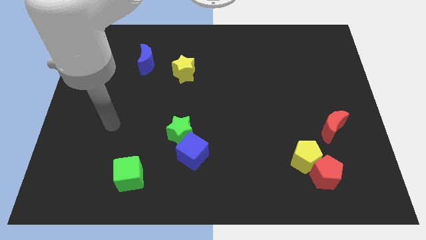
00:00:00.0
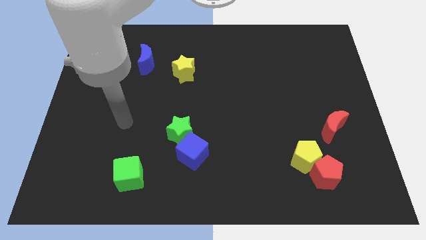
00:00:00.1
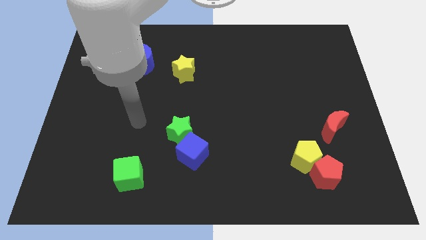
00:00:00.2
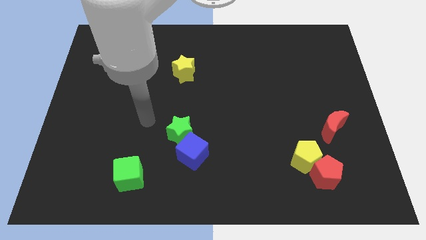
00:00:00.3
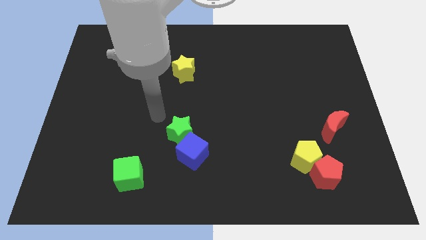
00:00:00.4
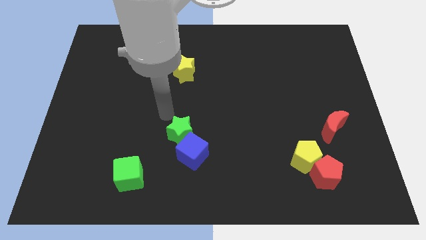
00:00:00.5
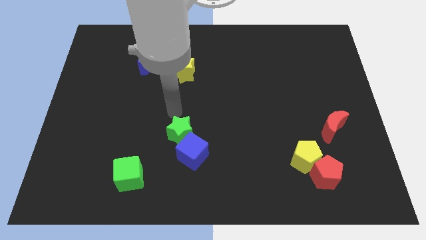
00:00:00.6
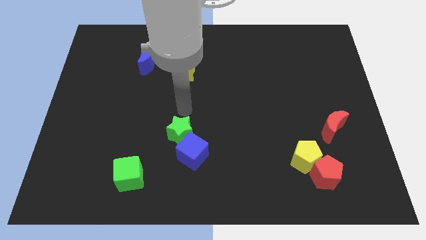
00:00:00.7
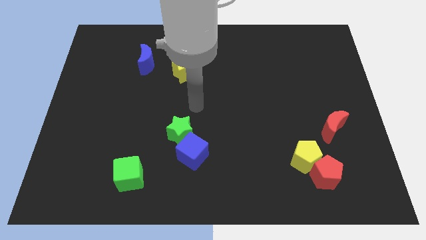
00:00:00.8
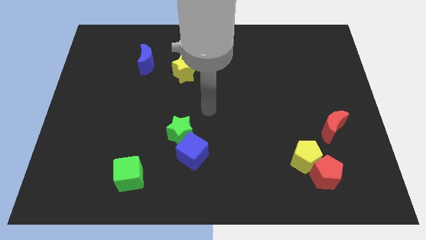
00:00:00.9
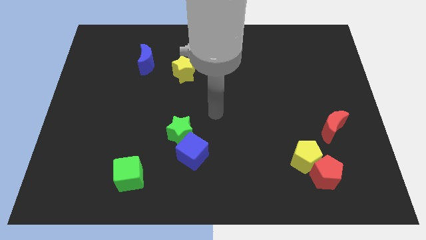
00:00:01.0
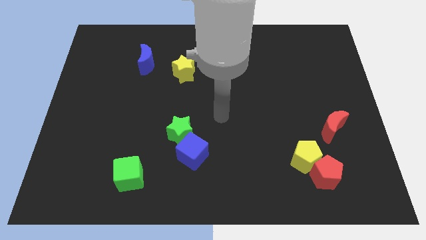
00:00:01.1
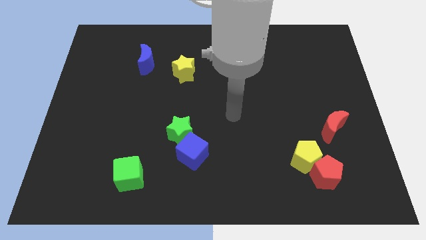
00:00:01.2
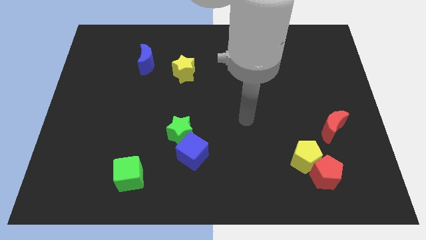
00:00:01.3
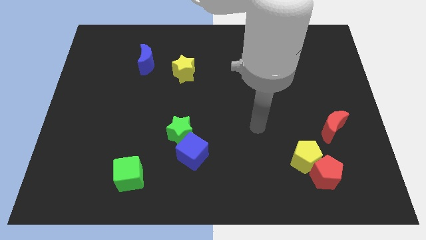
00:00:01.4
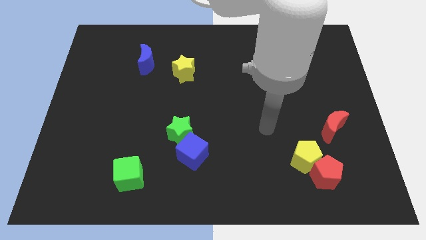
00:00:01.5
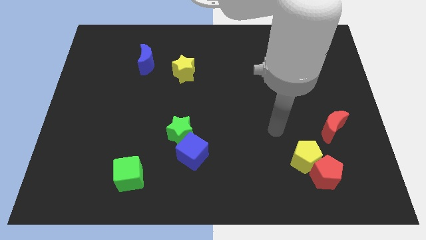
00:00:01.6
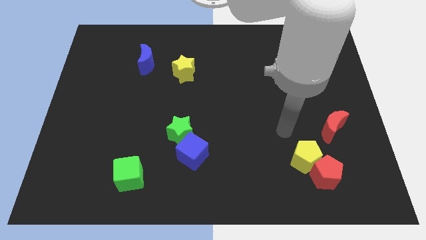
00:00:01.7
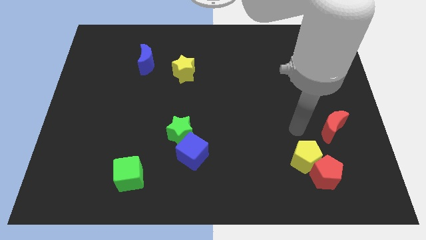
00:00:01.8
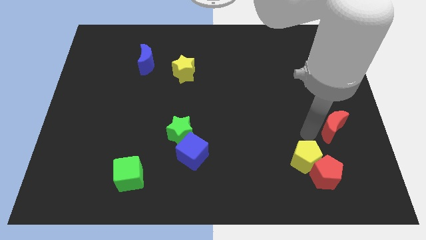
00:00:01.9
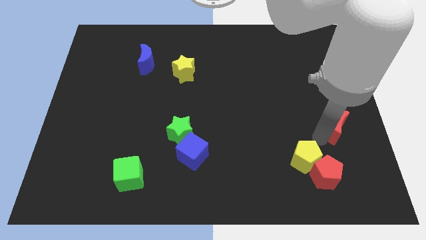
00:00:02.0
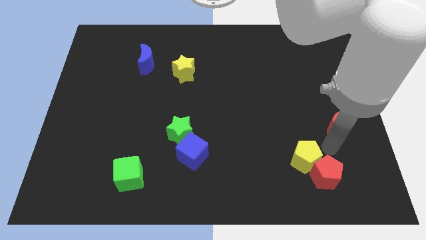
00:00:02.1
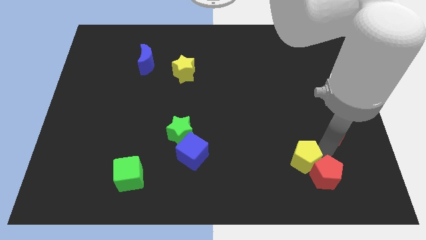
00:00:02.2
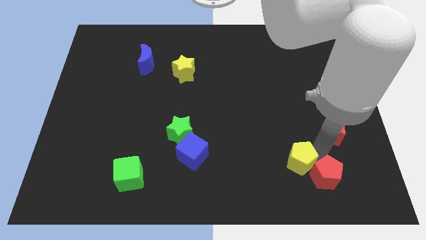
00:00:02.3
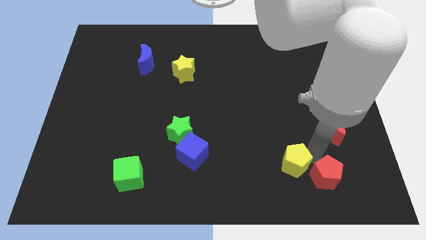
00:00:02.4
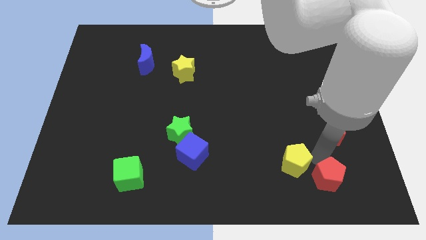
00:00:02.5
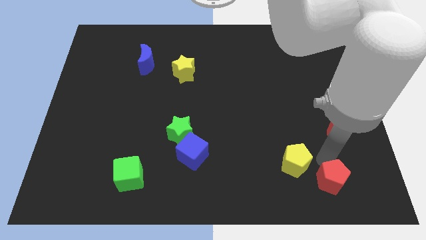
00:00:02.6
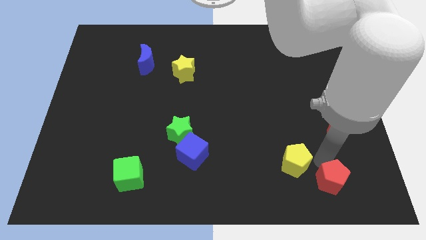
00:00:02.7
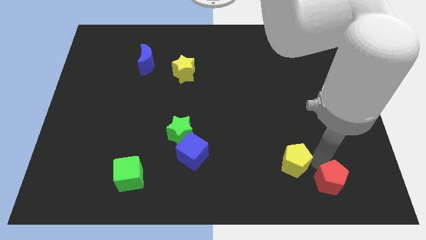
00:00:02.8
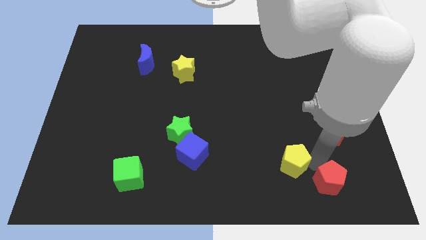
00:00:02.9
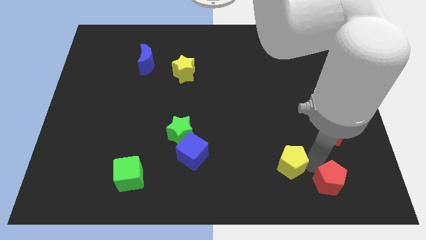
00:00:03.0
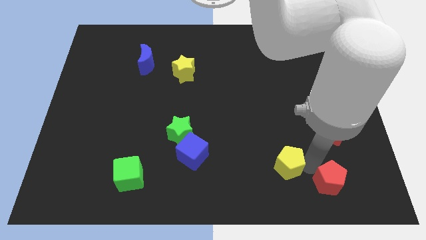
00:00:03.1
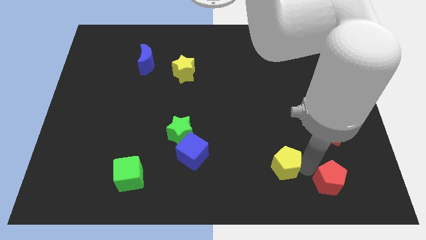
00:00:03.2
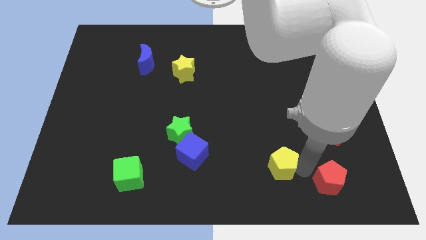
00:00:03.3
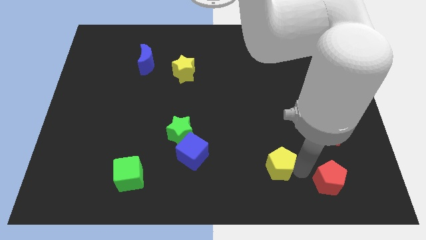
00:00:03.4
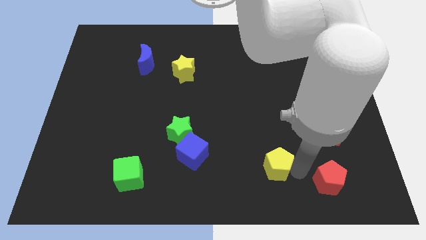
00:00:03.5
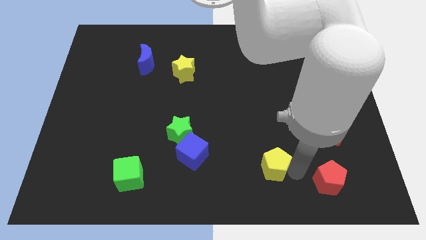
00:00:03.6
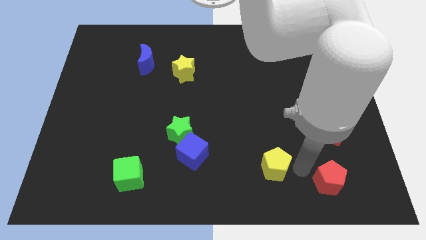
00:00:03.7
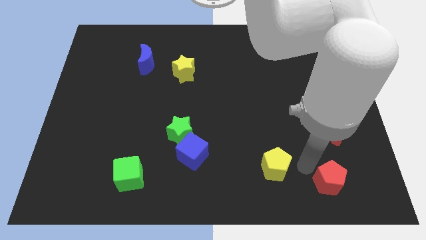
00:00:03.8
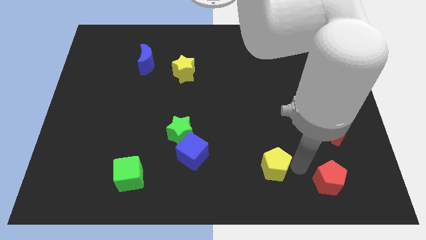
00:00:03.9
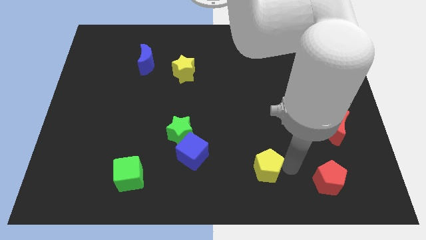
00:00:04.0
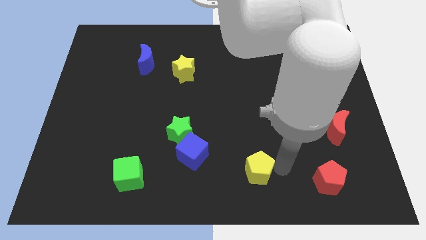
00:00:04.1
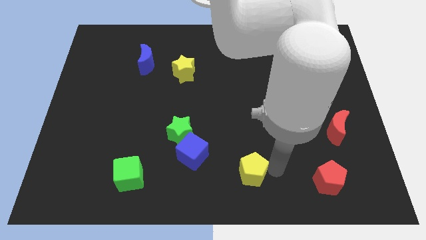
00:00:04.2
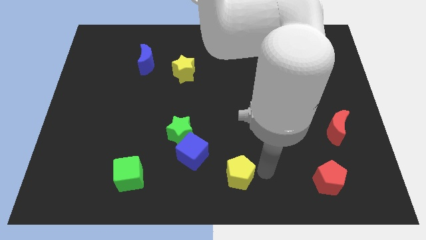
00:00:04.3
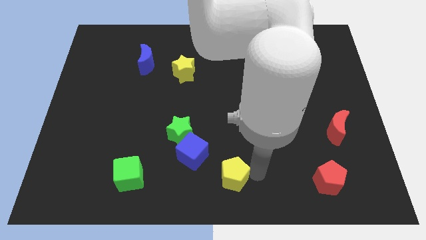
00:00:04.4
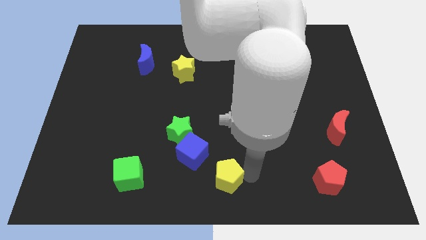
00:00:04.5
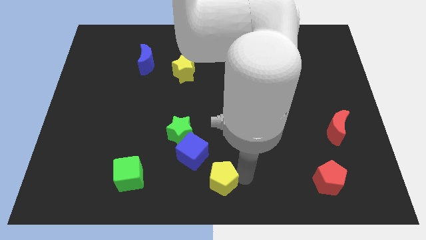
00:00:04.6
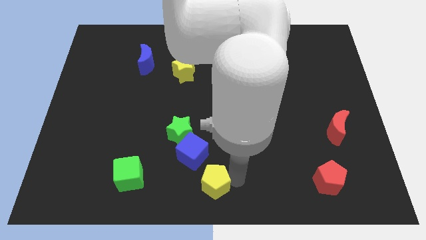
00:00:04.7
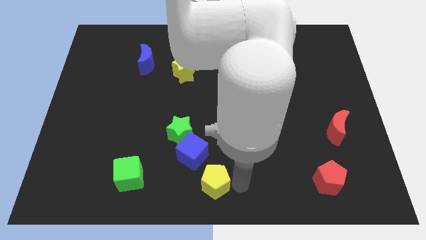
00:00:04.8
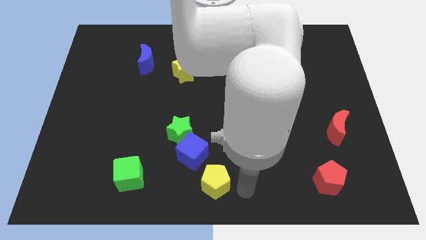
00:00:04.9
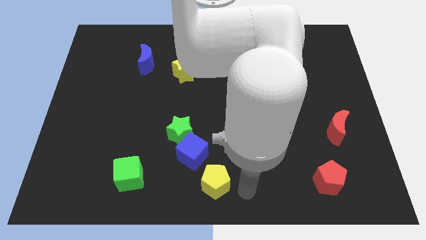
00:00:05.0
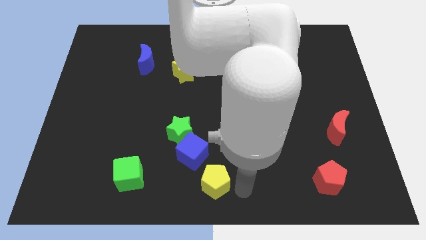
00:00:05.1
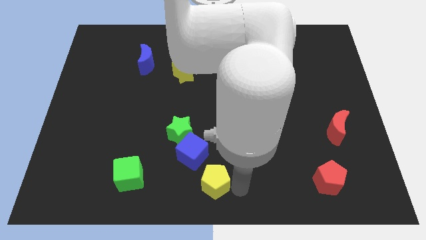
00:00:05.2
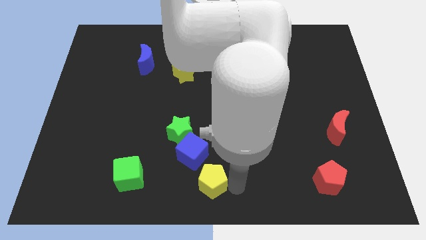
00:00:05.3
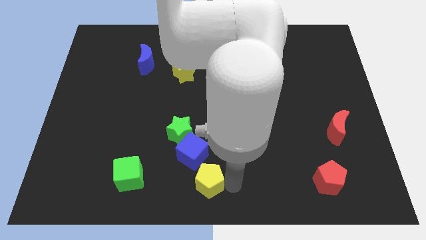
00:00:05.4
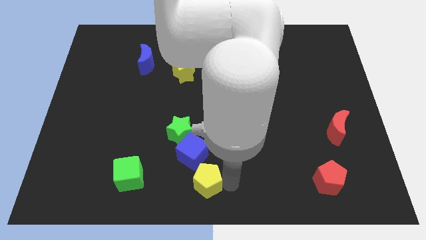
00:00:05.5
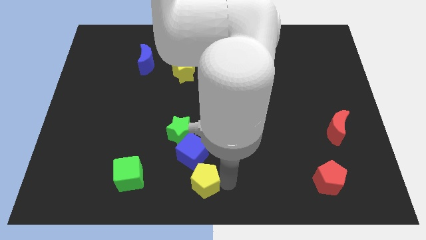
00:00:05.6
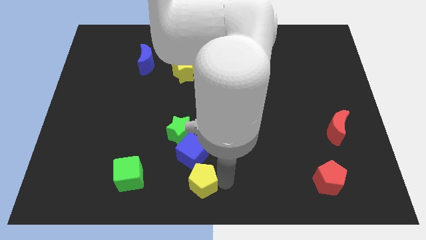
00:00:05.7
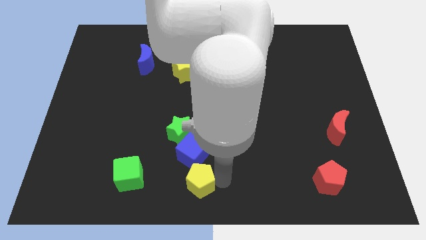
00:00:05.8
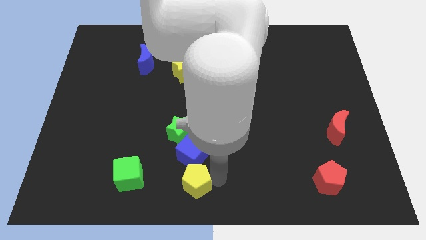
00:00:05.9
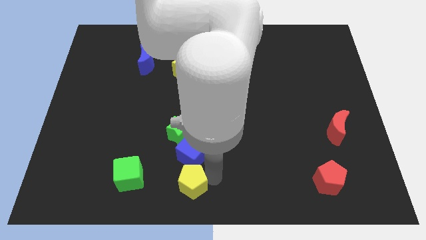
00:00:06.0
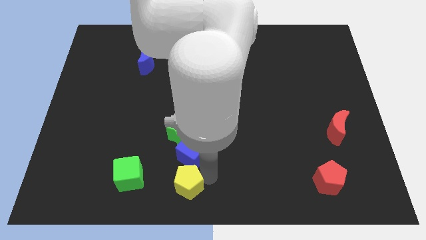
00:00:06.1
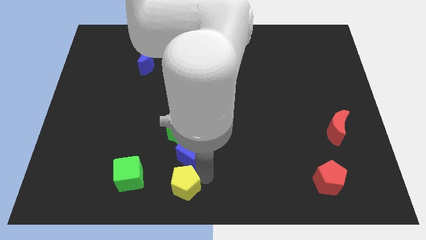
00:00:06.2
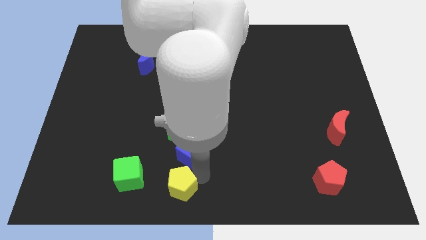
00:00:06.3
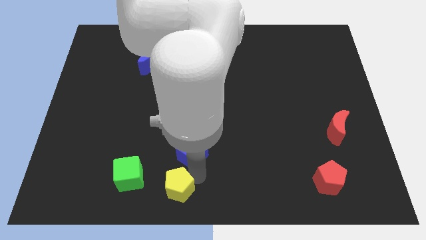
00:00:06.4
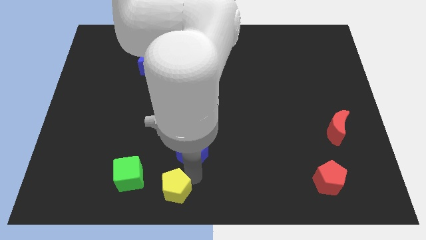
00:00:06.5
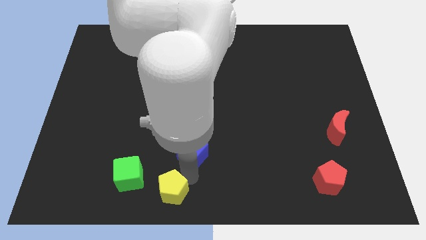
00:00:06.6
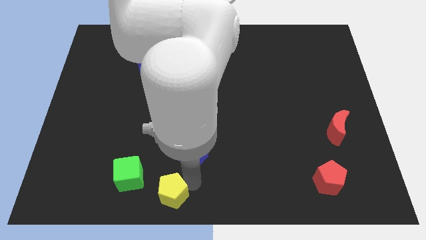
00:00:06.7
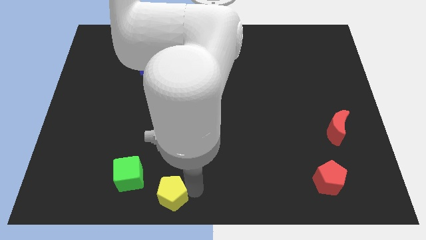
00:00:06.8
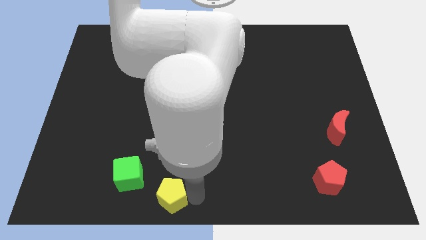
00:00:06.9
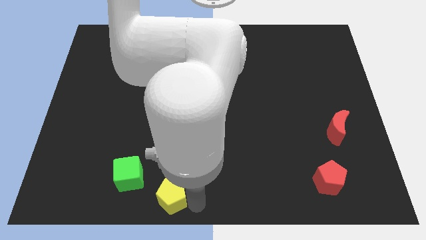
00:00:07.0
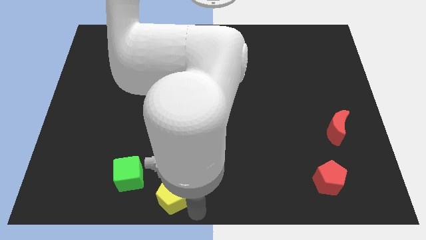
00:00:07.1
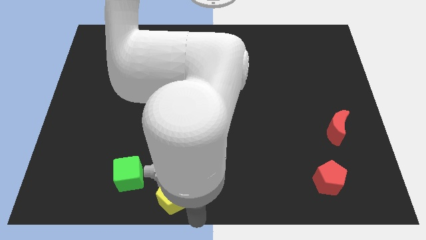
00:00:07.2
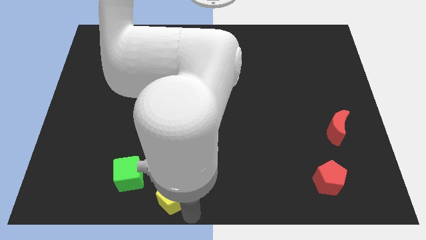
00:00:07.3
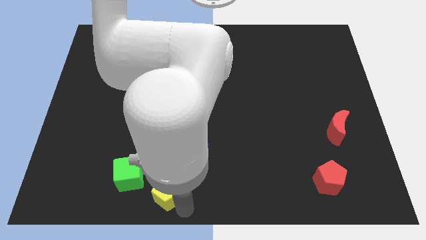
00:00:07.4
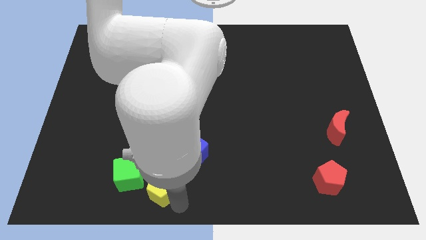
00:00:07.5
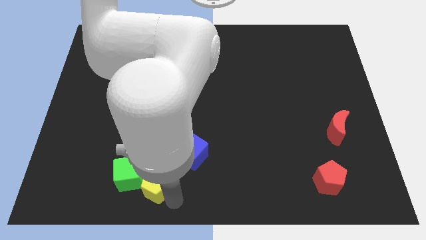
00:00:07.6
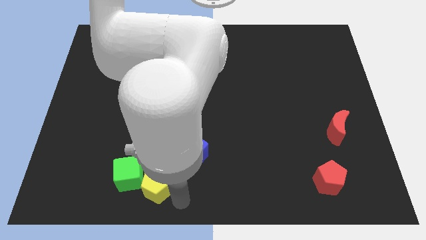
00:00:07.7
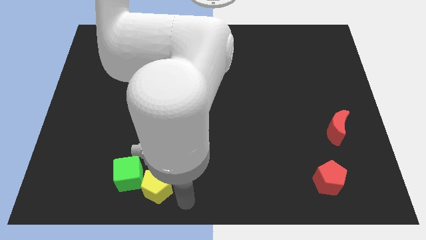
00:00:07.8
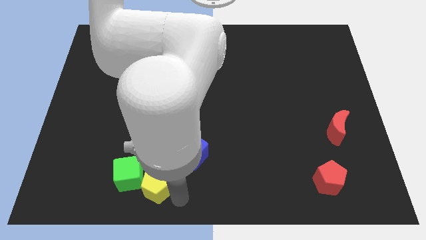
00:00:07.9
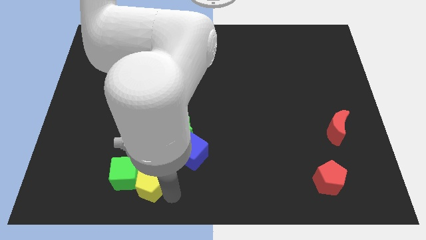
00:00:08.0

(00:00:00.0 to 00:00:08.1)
move the yellow pentagon next to the green cube
